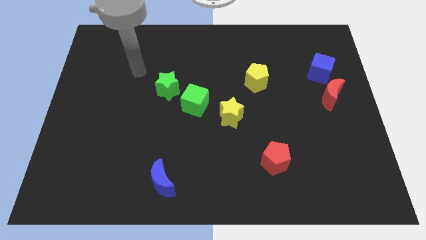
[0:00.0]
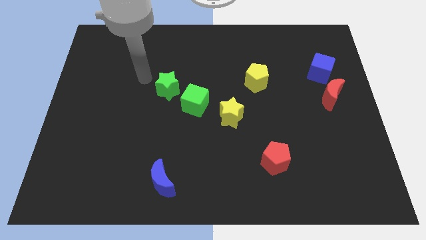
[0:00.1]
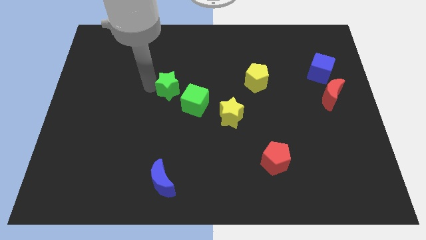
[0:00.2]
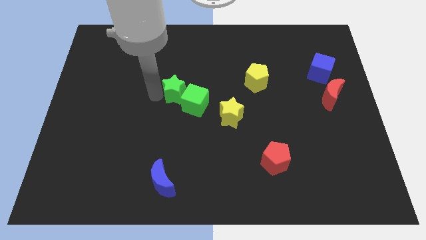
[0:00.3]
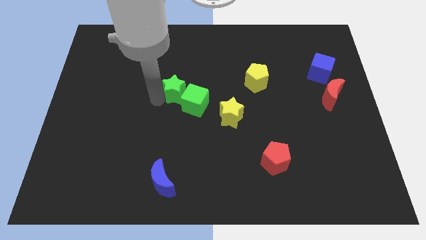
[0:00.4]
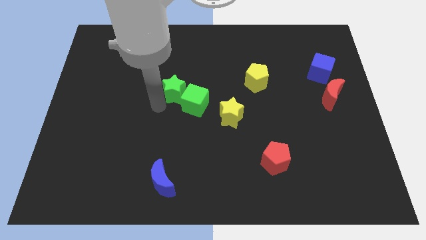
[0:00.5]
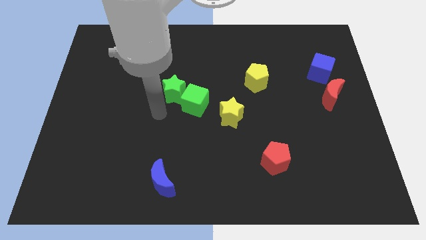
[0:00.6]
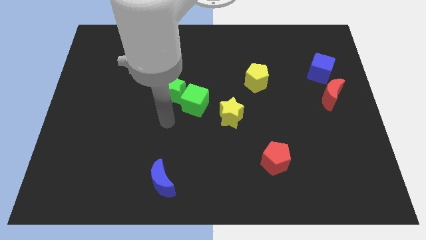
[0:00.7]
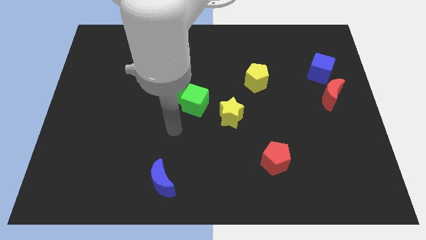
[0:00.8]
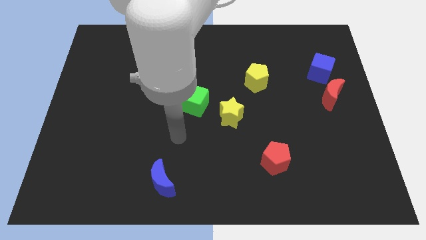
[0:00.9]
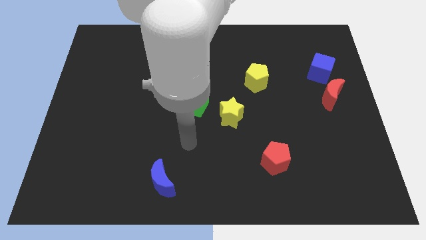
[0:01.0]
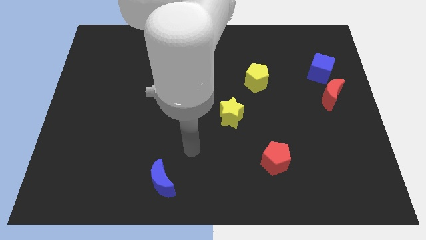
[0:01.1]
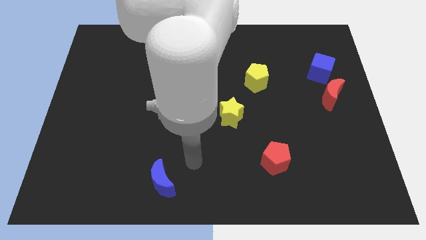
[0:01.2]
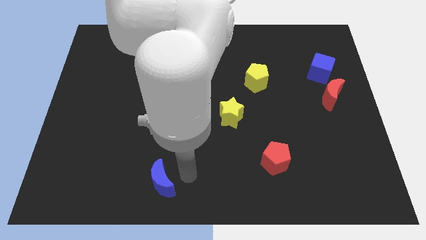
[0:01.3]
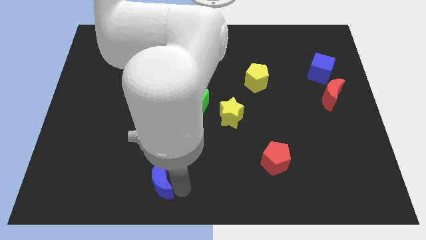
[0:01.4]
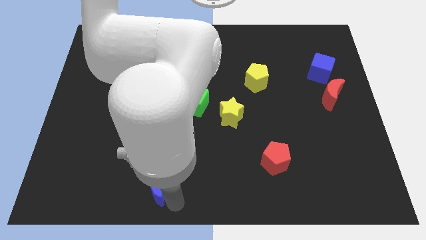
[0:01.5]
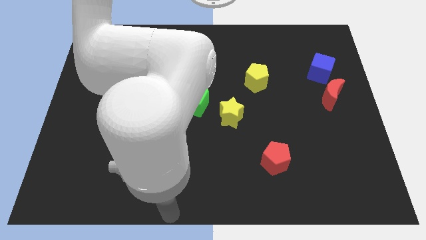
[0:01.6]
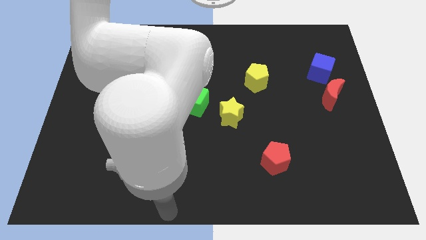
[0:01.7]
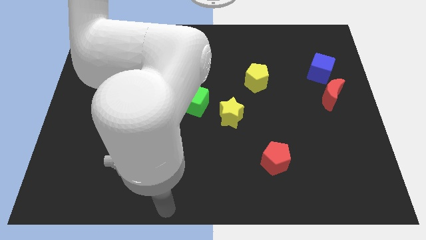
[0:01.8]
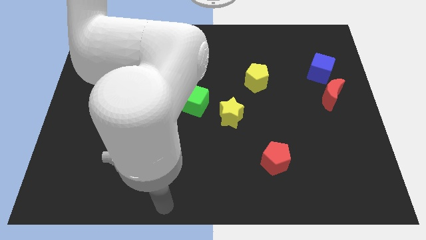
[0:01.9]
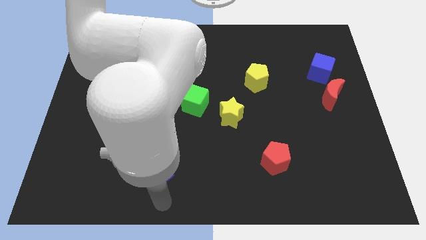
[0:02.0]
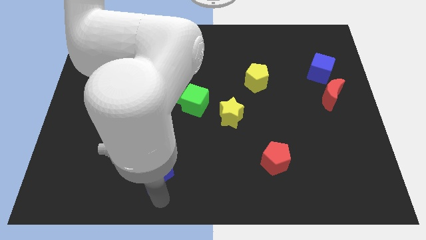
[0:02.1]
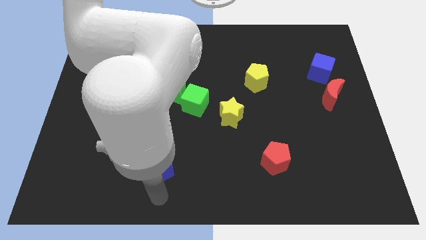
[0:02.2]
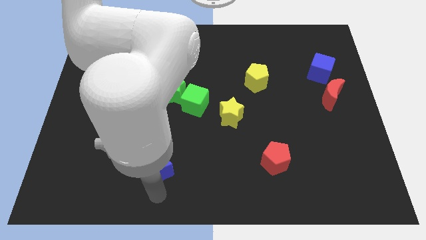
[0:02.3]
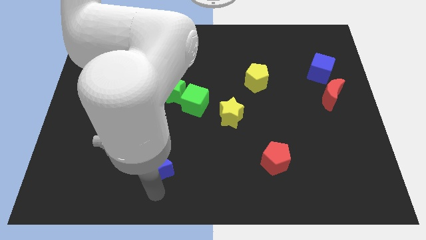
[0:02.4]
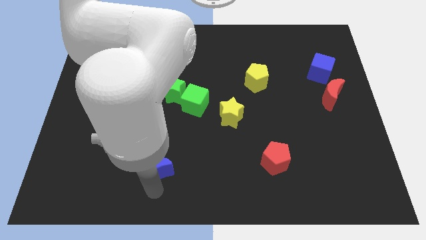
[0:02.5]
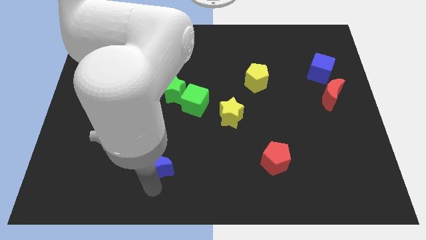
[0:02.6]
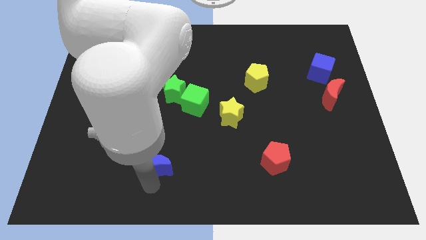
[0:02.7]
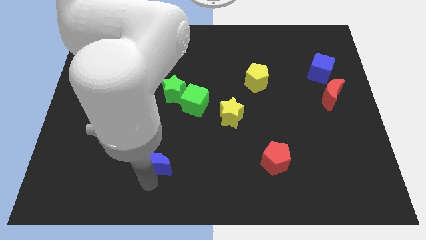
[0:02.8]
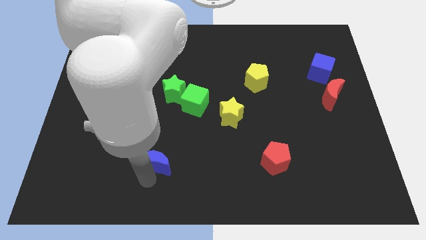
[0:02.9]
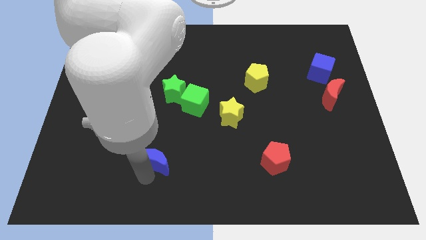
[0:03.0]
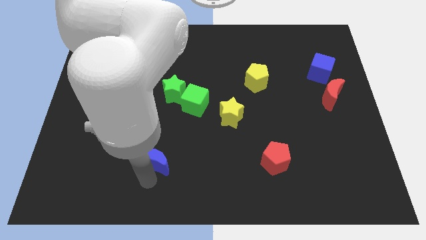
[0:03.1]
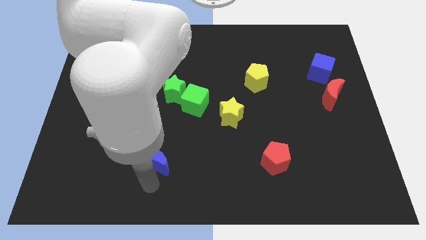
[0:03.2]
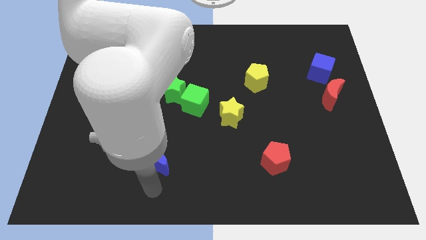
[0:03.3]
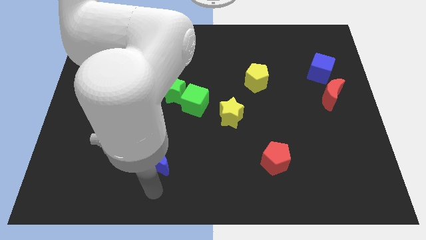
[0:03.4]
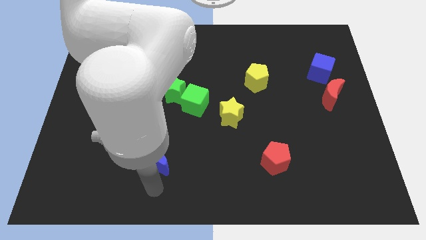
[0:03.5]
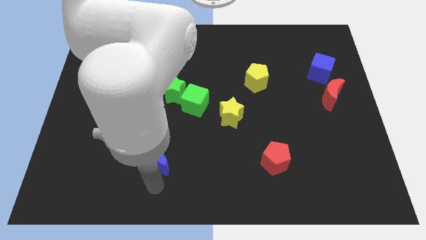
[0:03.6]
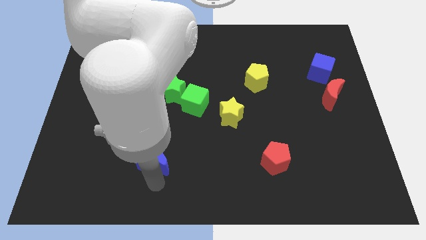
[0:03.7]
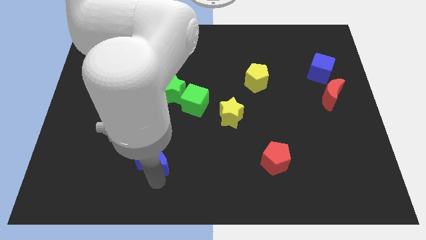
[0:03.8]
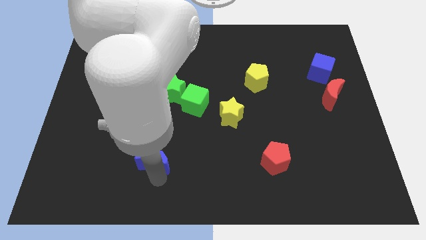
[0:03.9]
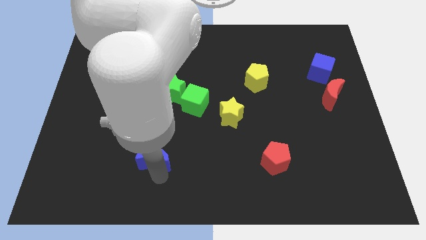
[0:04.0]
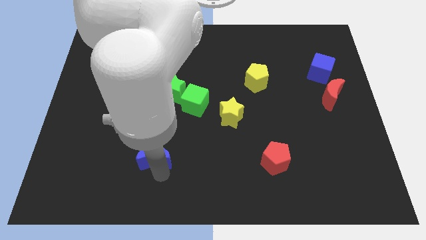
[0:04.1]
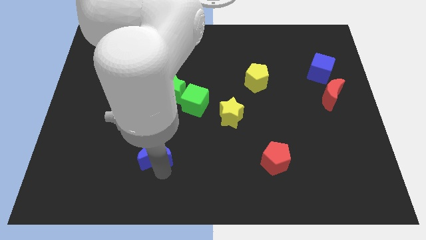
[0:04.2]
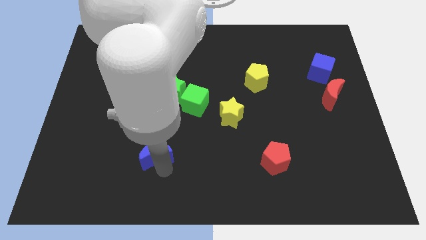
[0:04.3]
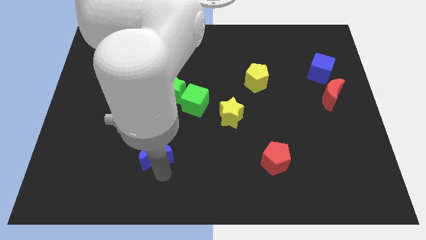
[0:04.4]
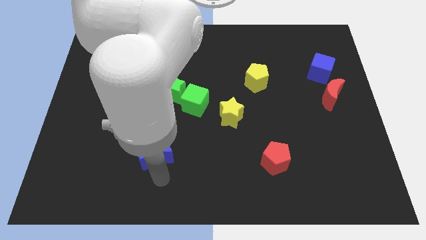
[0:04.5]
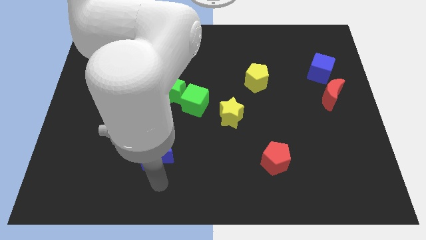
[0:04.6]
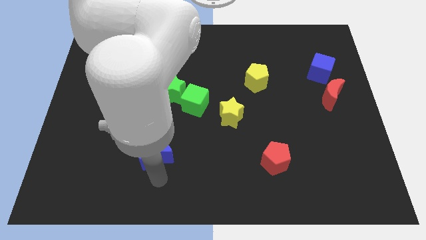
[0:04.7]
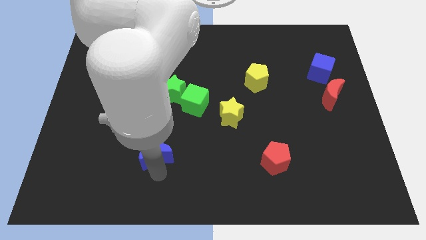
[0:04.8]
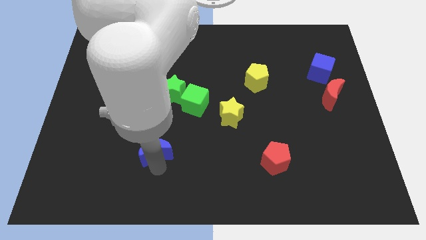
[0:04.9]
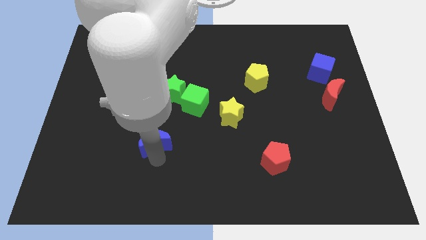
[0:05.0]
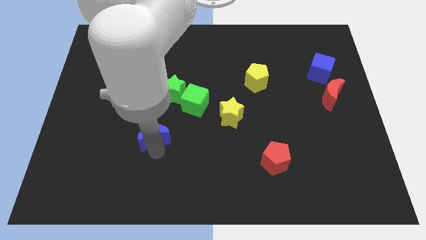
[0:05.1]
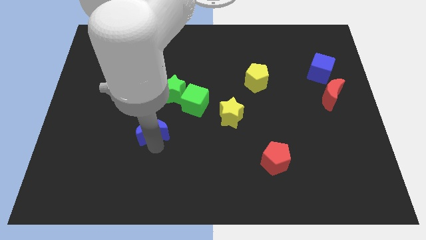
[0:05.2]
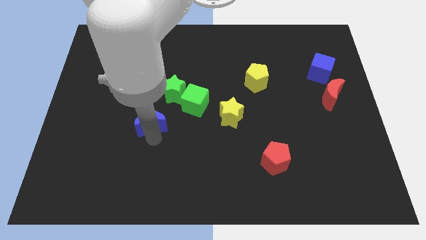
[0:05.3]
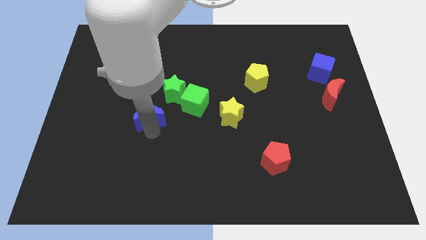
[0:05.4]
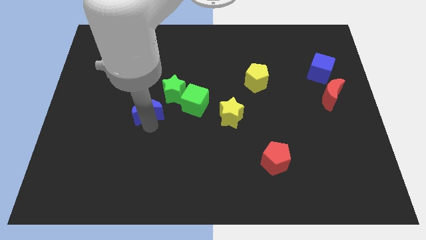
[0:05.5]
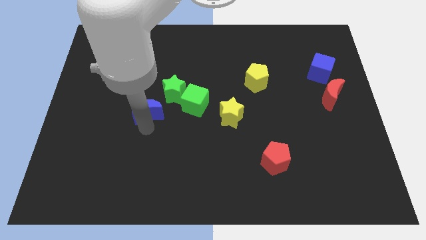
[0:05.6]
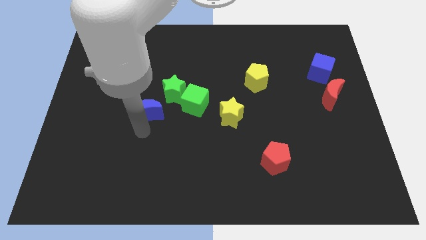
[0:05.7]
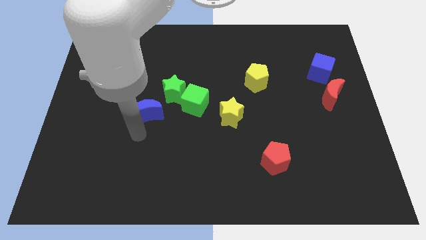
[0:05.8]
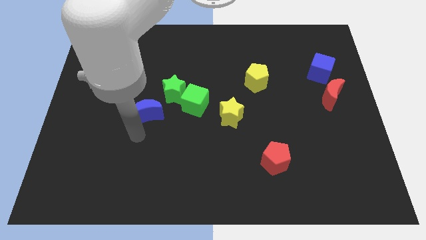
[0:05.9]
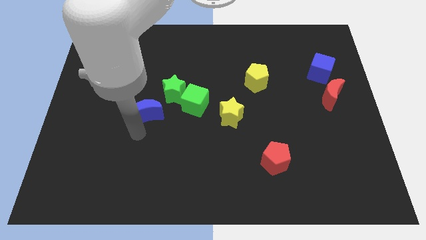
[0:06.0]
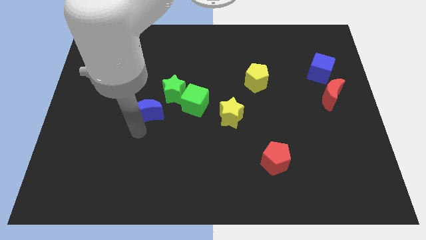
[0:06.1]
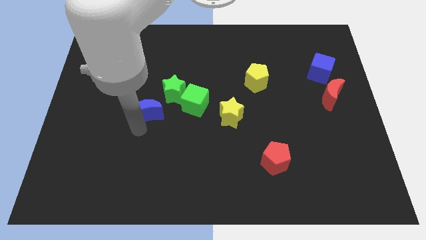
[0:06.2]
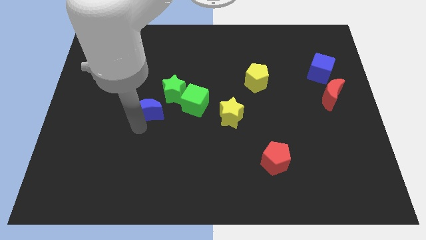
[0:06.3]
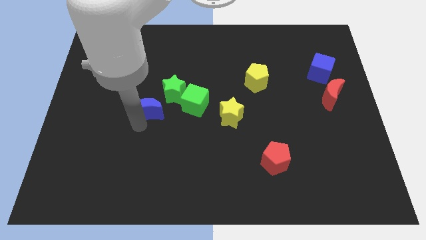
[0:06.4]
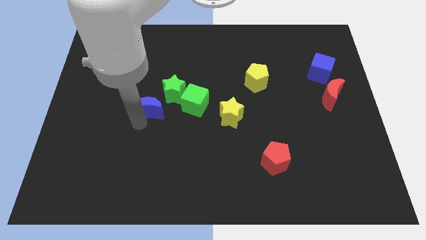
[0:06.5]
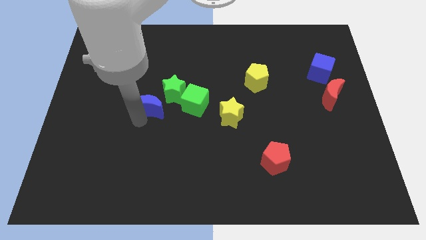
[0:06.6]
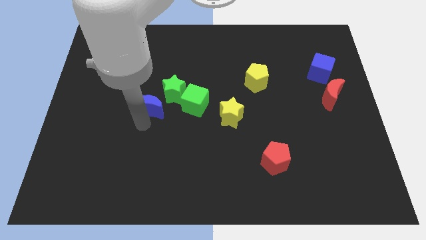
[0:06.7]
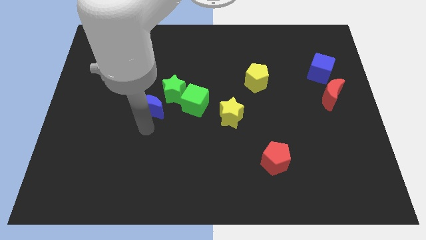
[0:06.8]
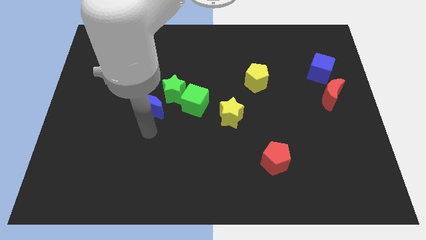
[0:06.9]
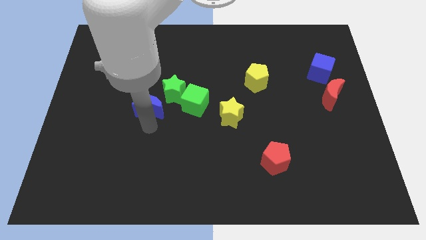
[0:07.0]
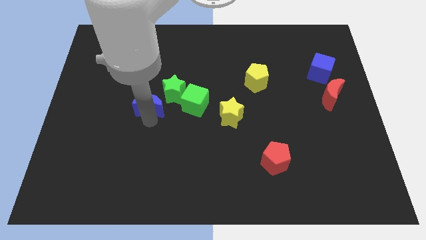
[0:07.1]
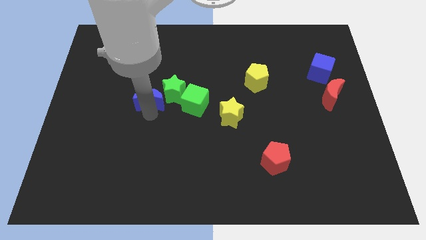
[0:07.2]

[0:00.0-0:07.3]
slide the blue moon up

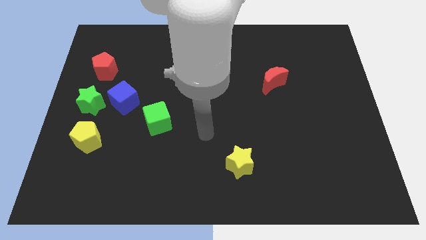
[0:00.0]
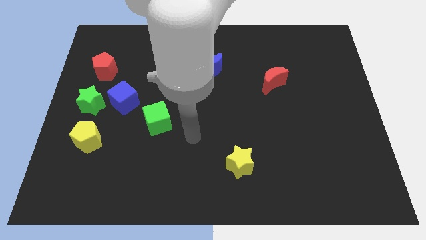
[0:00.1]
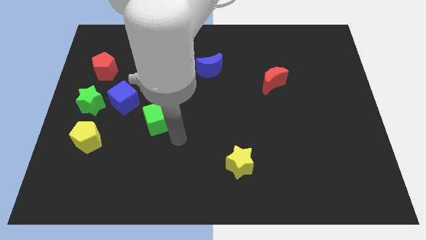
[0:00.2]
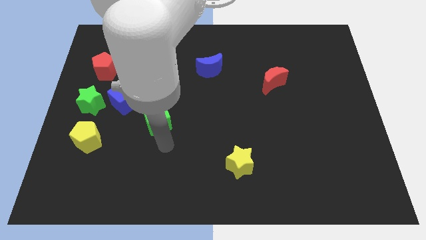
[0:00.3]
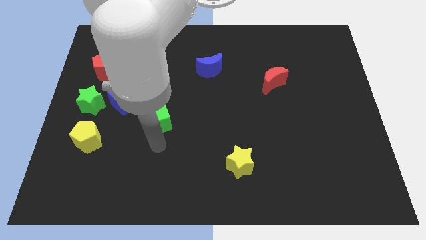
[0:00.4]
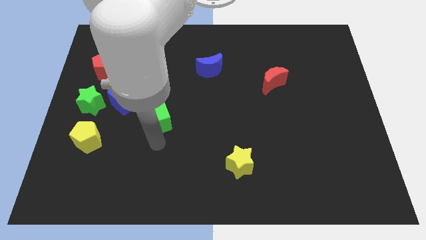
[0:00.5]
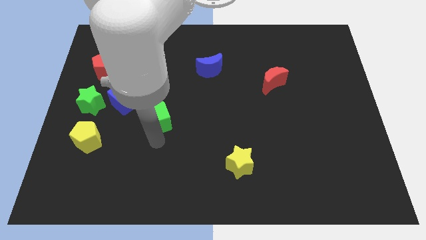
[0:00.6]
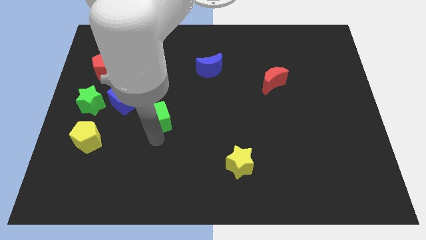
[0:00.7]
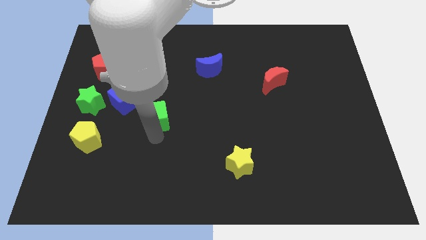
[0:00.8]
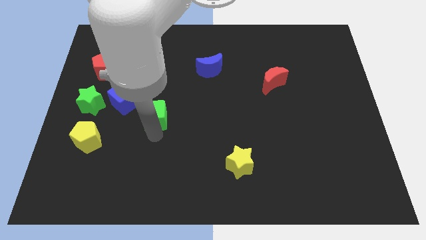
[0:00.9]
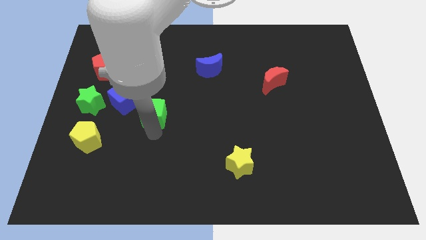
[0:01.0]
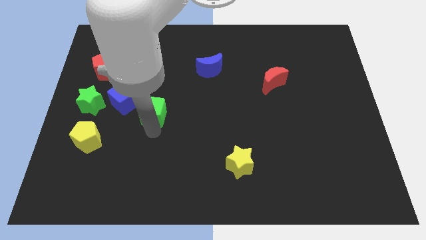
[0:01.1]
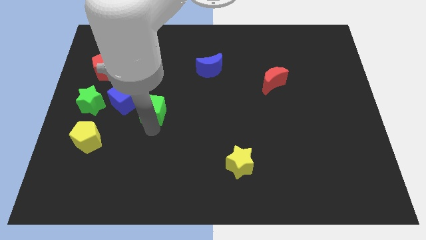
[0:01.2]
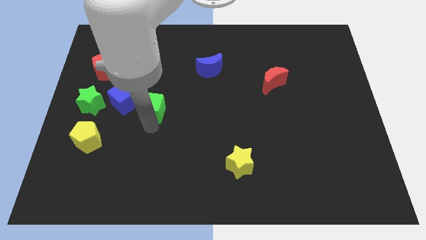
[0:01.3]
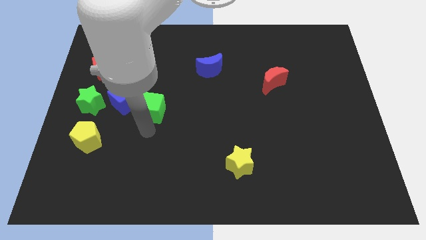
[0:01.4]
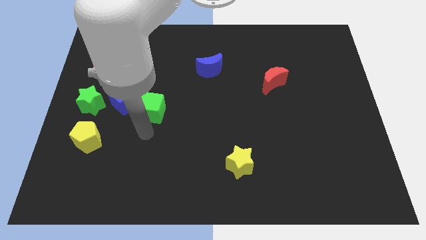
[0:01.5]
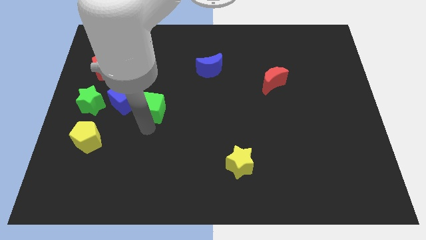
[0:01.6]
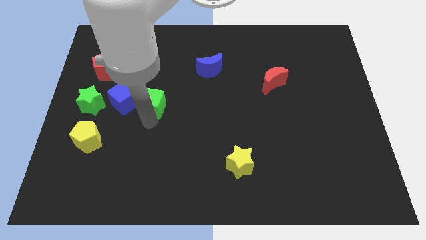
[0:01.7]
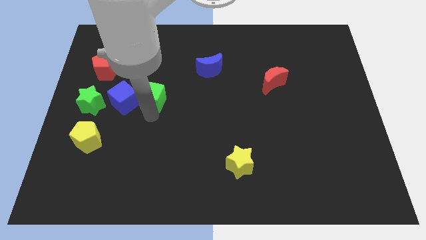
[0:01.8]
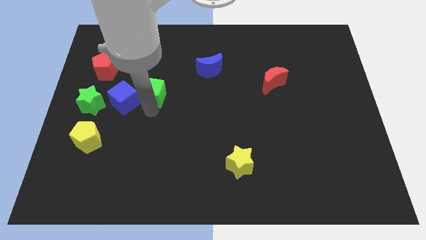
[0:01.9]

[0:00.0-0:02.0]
slightly push the green cube up
